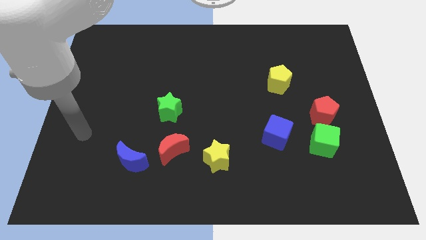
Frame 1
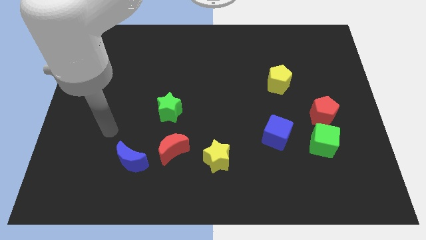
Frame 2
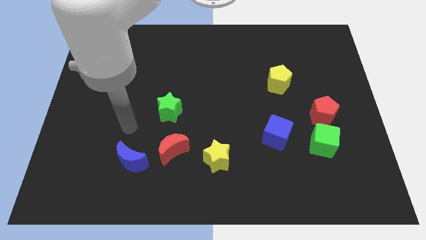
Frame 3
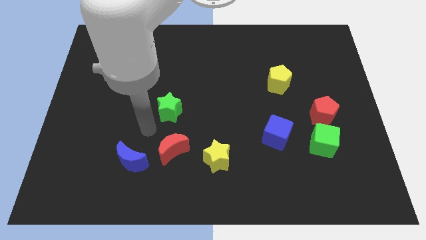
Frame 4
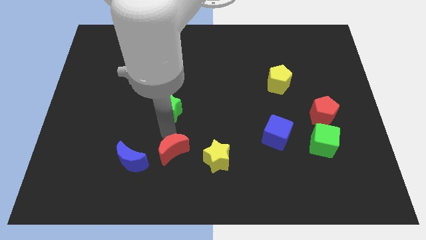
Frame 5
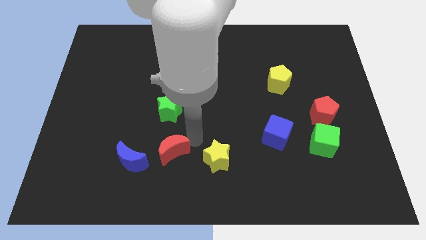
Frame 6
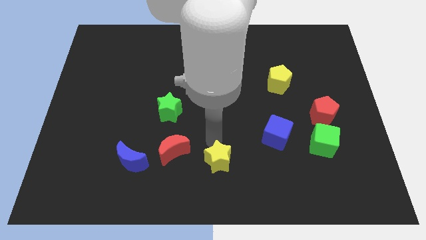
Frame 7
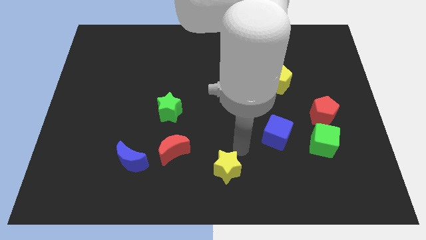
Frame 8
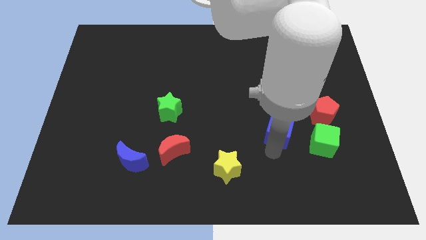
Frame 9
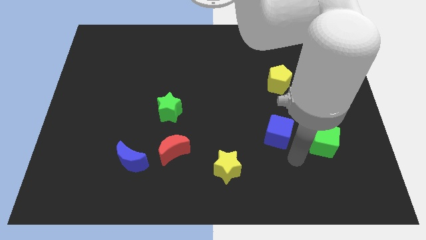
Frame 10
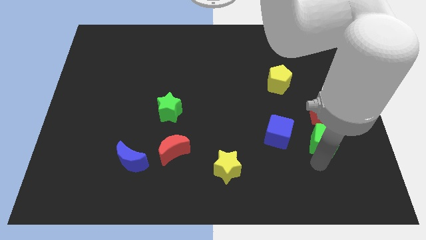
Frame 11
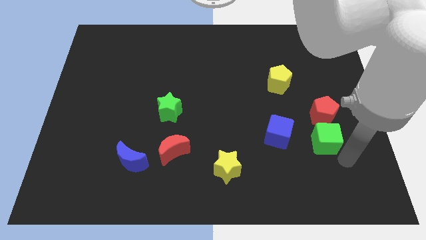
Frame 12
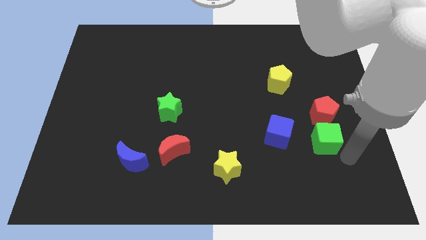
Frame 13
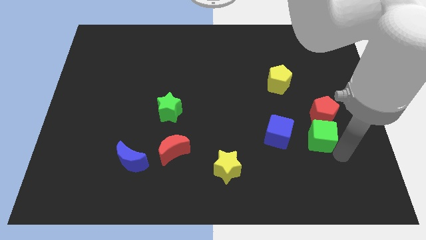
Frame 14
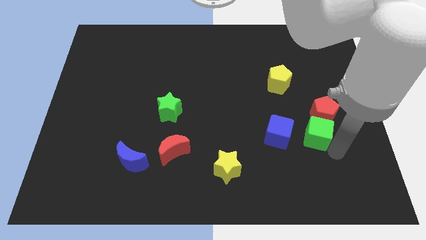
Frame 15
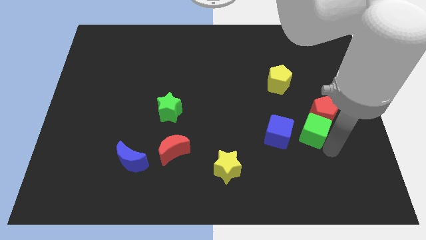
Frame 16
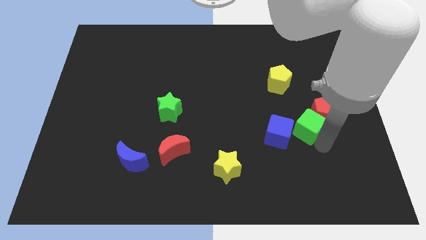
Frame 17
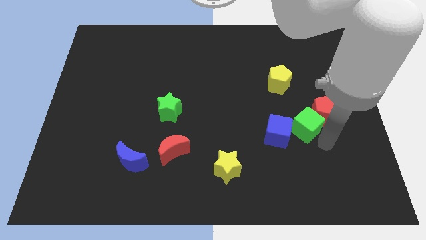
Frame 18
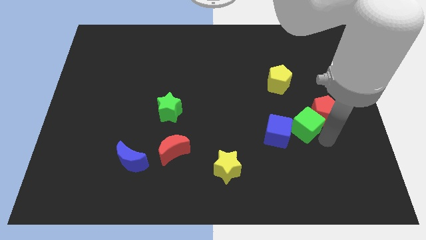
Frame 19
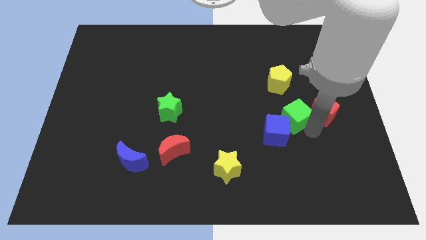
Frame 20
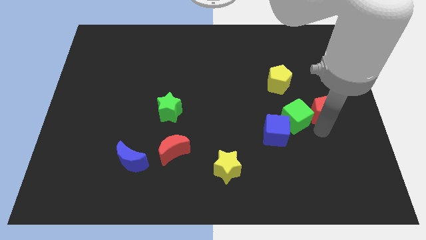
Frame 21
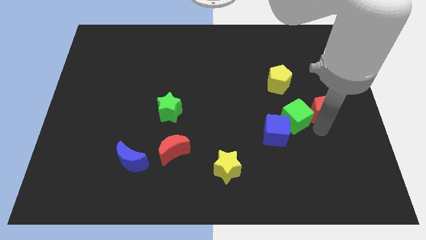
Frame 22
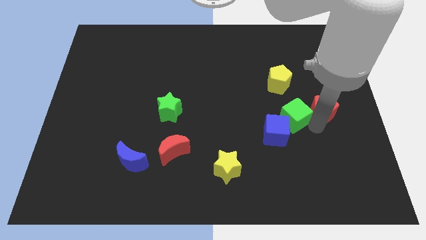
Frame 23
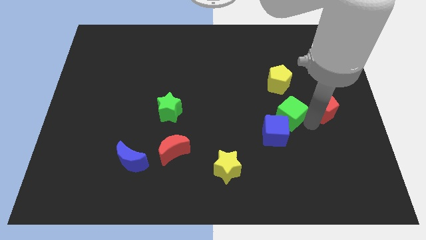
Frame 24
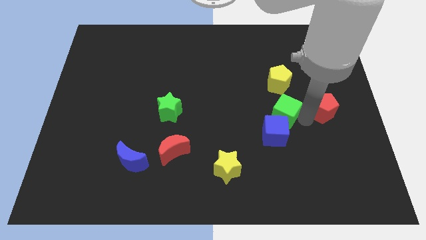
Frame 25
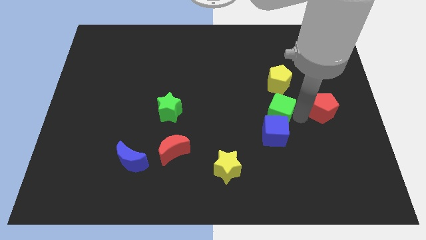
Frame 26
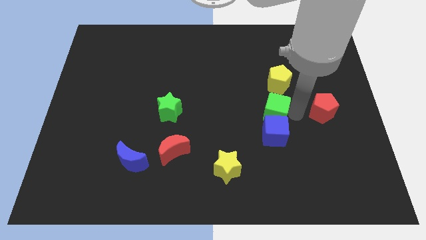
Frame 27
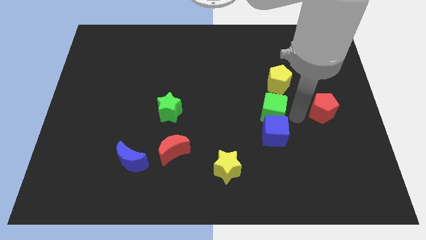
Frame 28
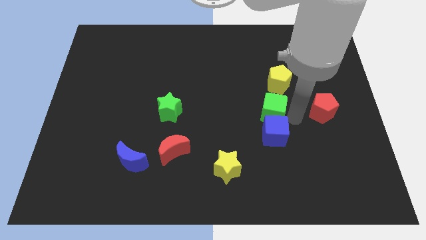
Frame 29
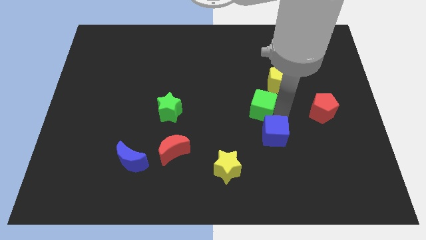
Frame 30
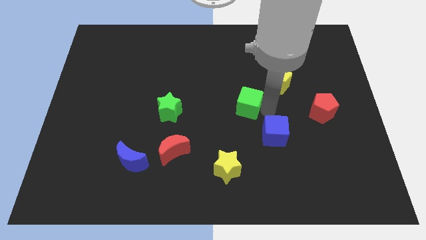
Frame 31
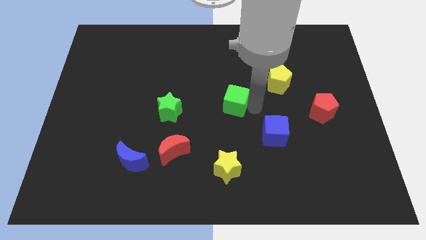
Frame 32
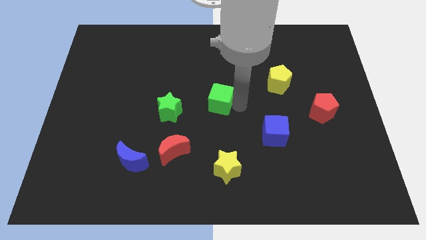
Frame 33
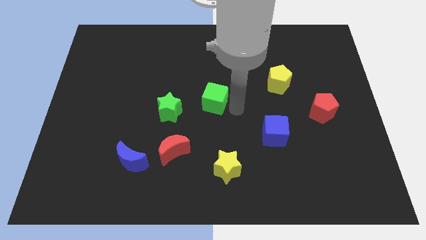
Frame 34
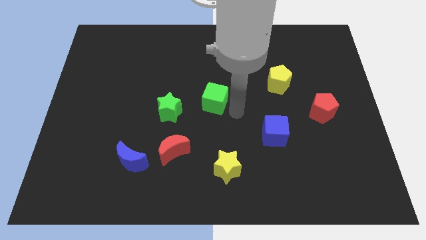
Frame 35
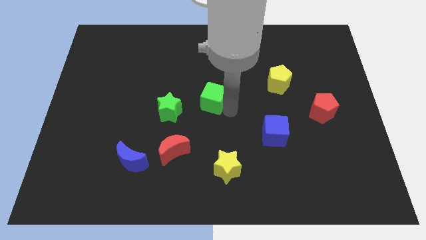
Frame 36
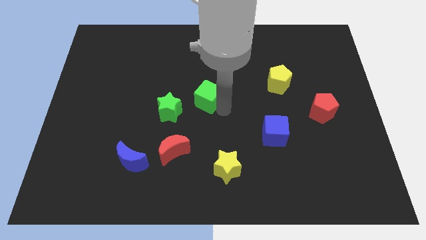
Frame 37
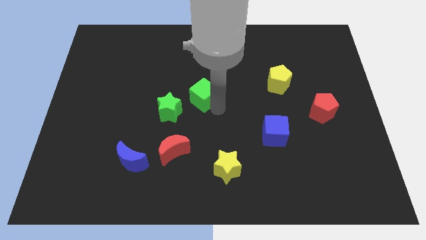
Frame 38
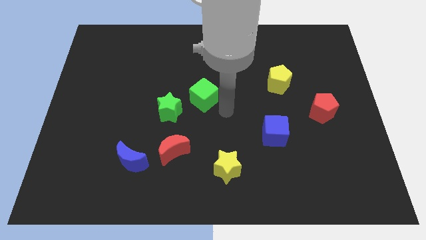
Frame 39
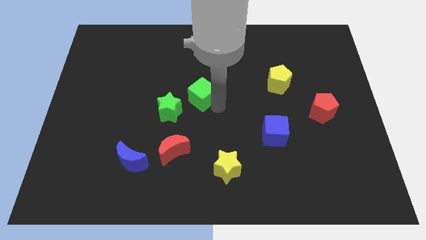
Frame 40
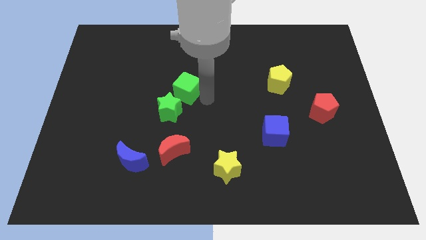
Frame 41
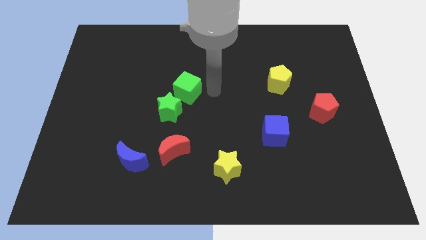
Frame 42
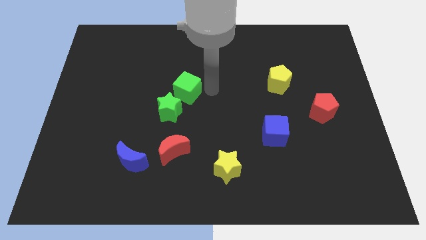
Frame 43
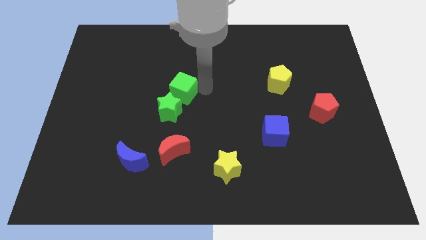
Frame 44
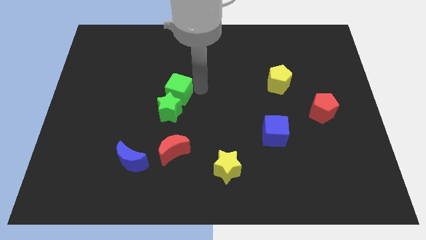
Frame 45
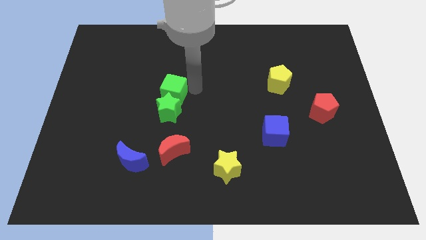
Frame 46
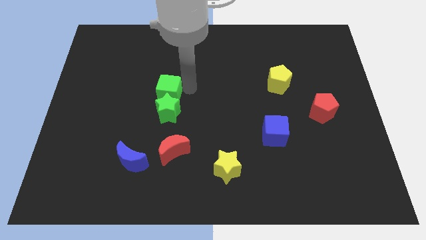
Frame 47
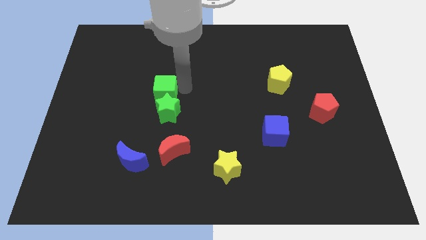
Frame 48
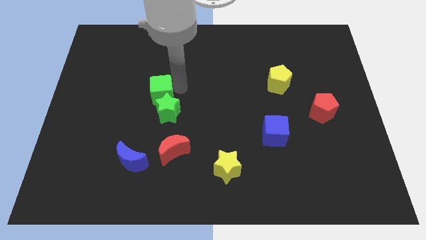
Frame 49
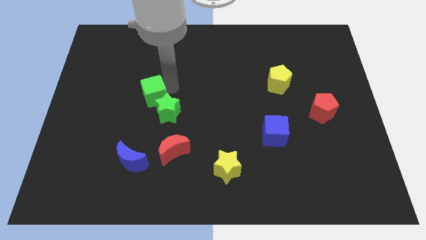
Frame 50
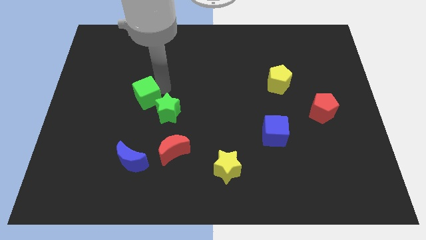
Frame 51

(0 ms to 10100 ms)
put the green cube just left of the green star

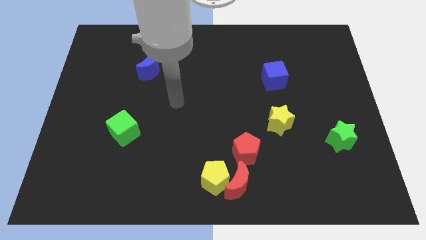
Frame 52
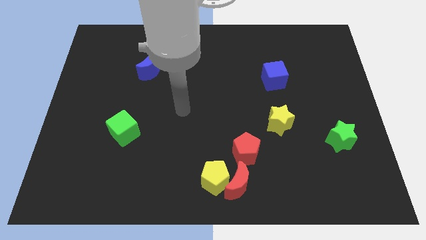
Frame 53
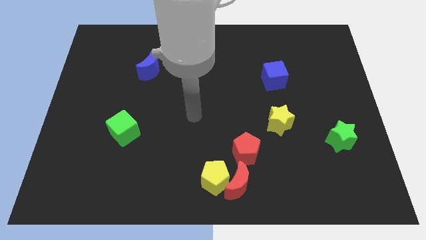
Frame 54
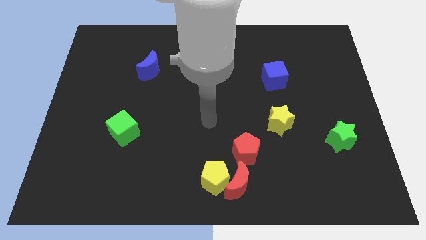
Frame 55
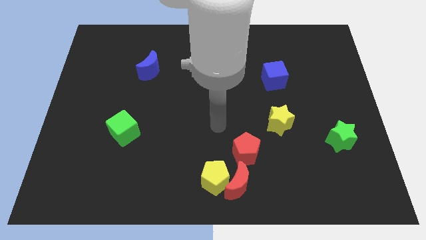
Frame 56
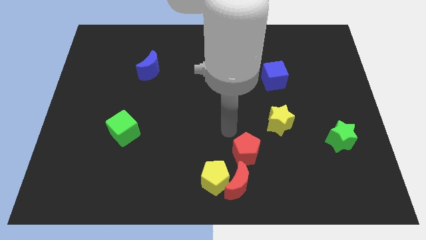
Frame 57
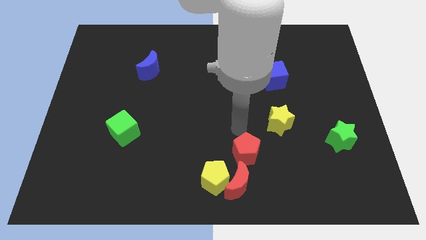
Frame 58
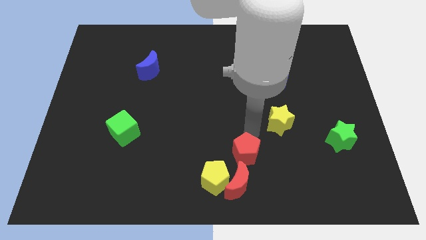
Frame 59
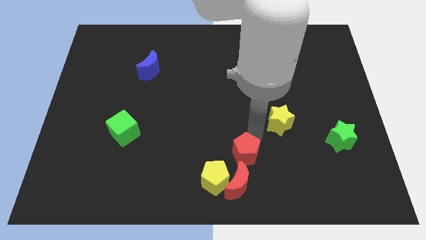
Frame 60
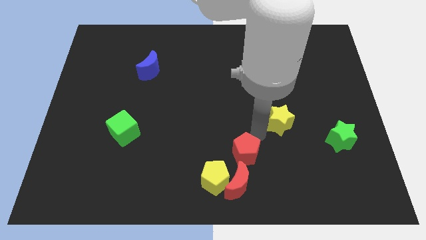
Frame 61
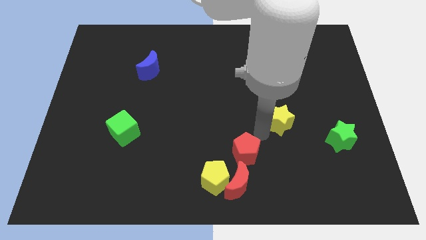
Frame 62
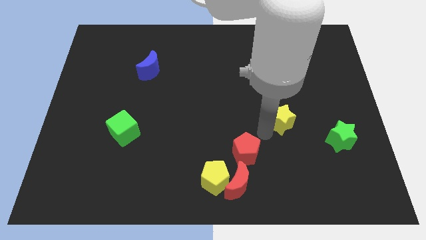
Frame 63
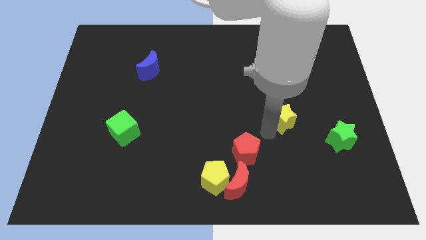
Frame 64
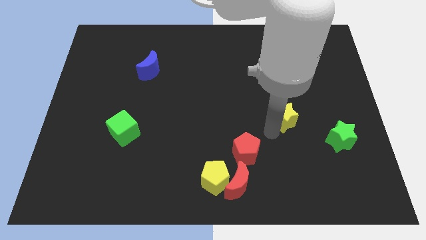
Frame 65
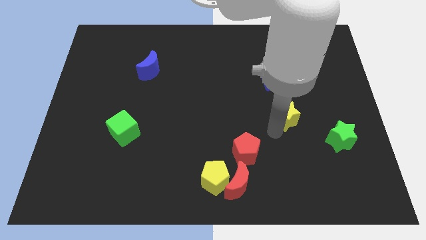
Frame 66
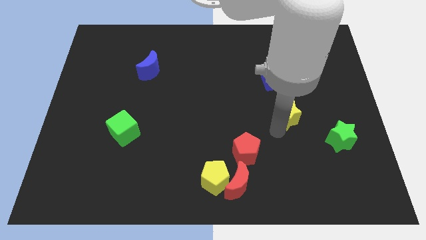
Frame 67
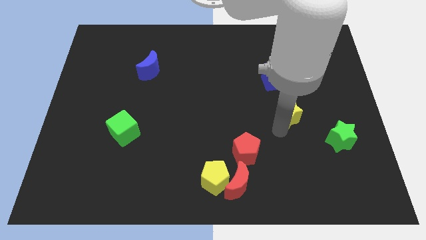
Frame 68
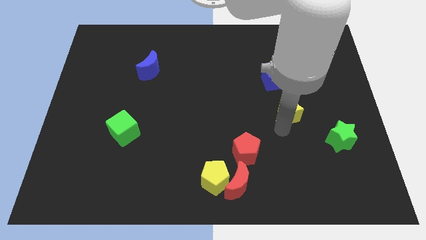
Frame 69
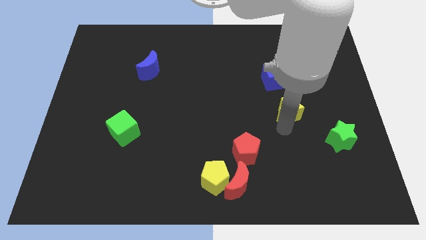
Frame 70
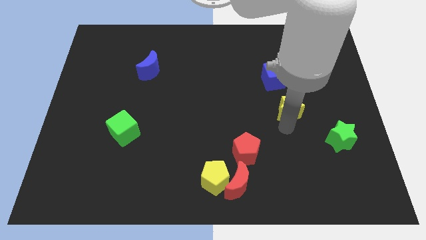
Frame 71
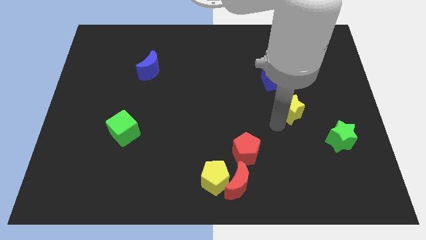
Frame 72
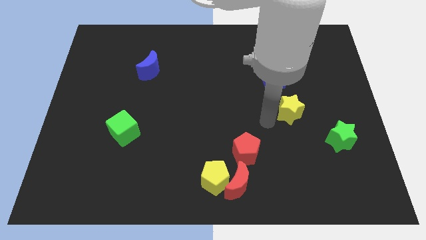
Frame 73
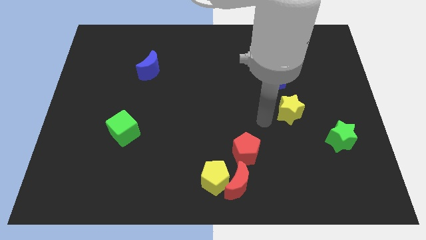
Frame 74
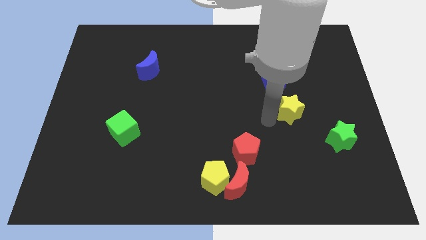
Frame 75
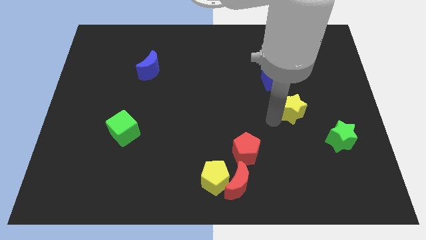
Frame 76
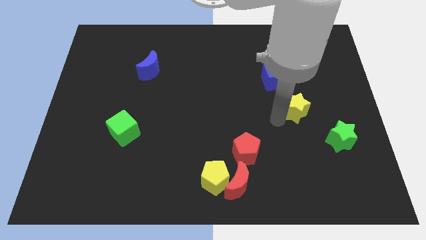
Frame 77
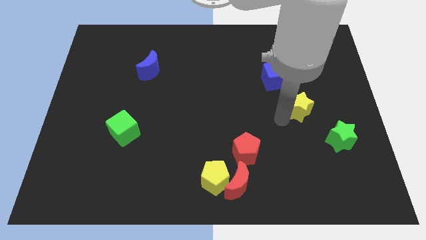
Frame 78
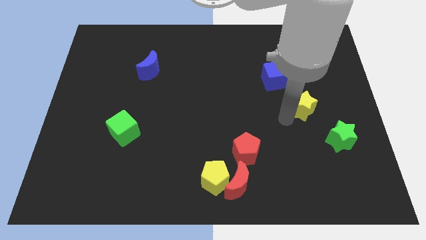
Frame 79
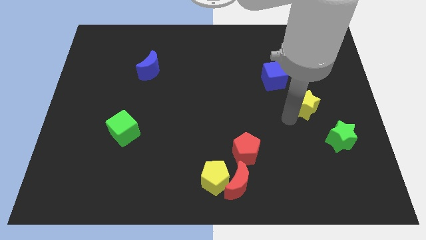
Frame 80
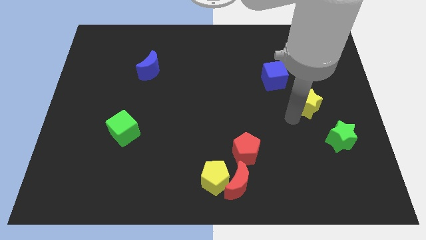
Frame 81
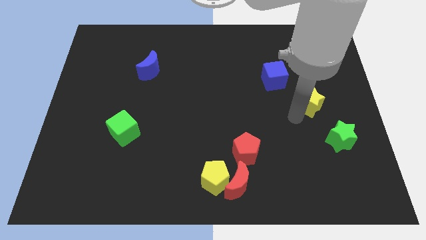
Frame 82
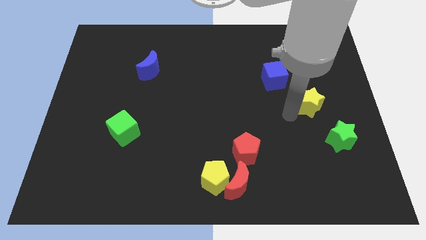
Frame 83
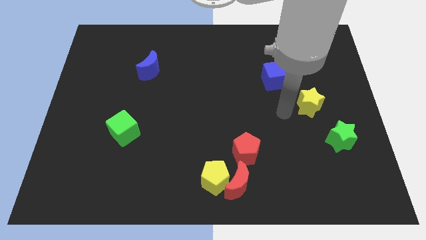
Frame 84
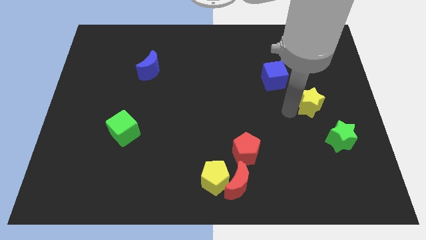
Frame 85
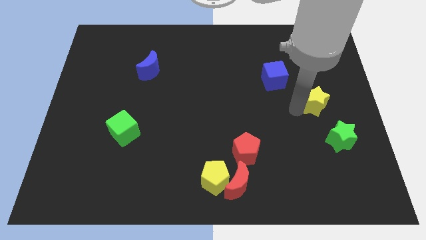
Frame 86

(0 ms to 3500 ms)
move the yellow star to the top side of the green star
